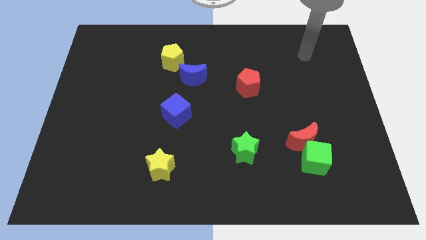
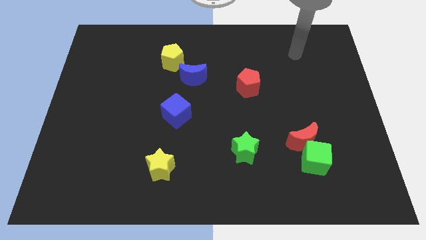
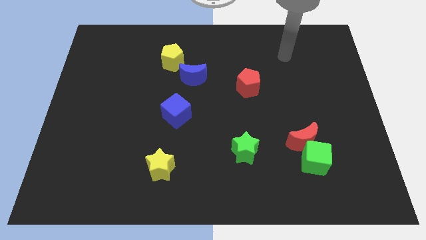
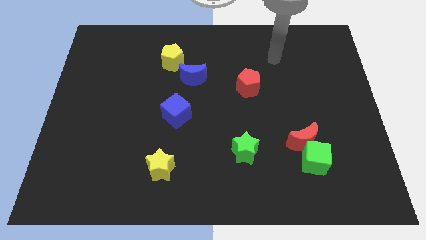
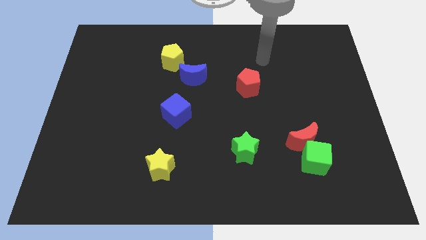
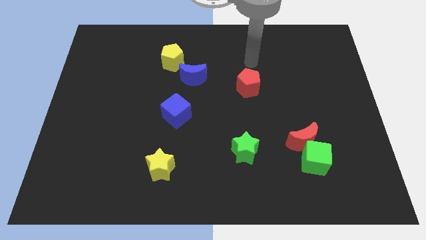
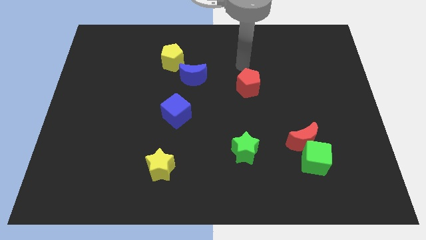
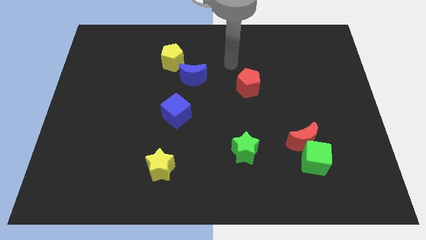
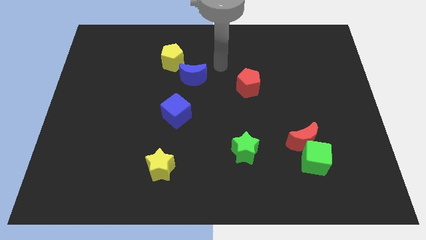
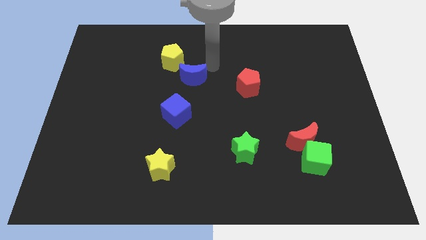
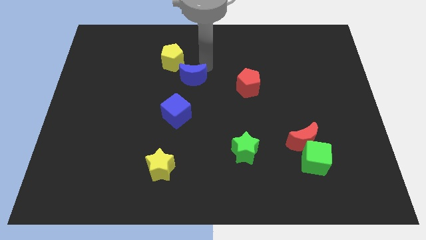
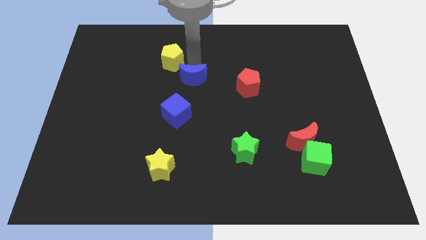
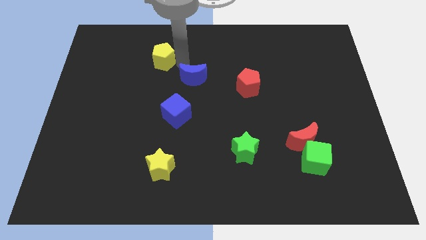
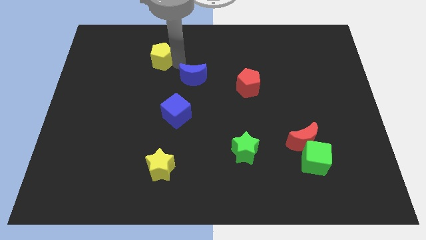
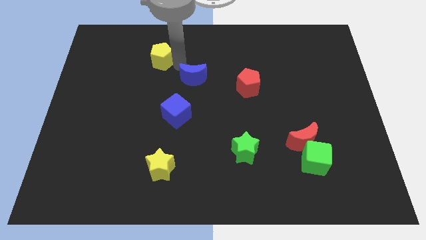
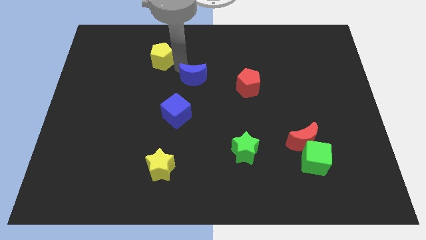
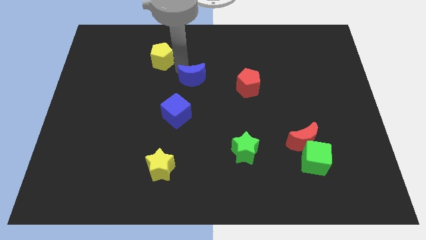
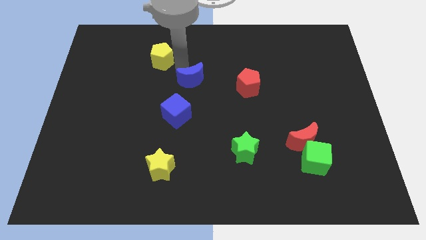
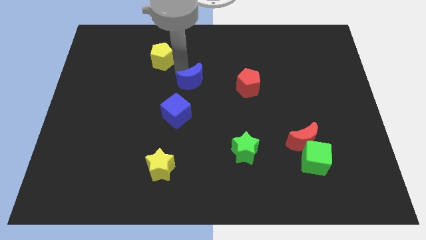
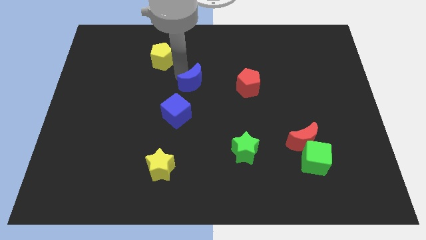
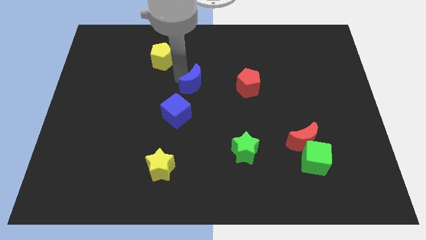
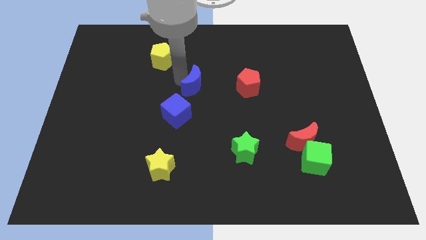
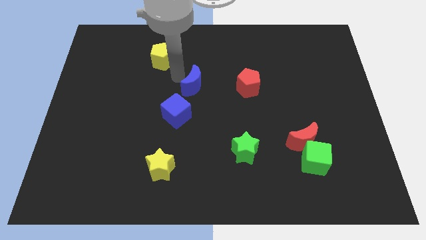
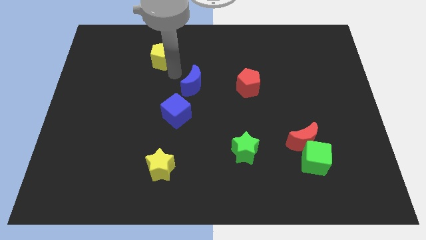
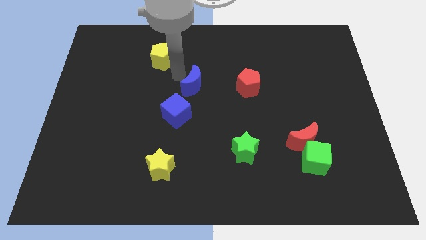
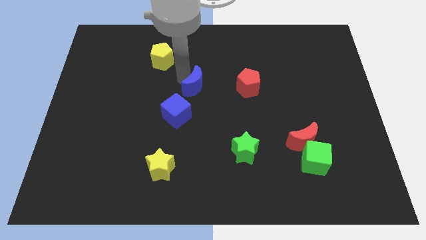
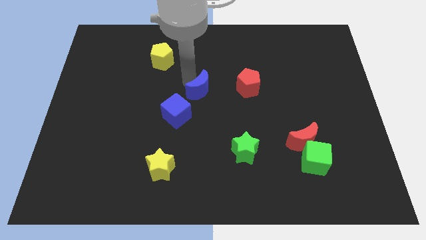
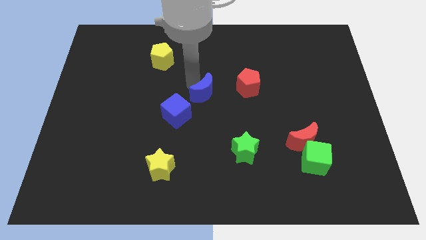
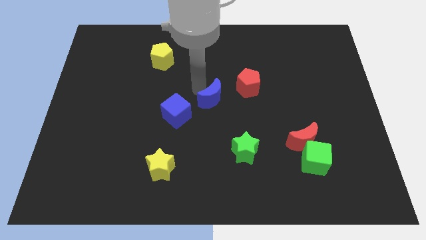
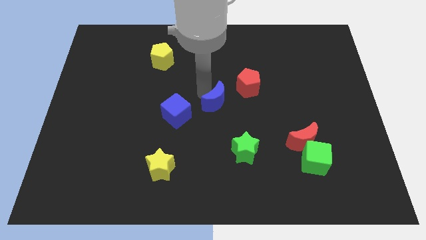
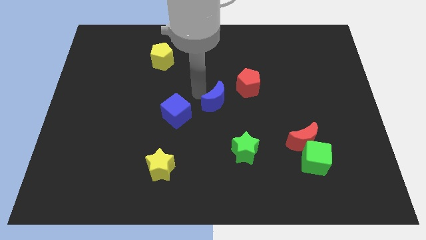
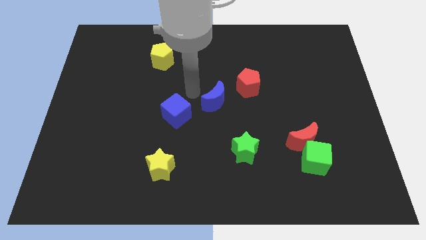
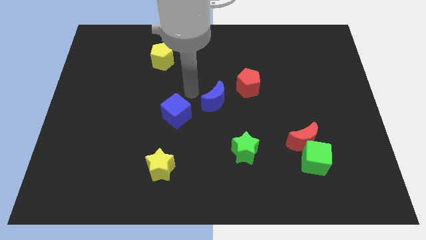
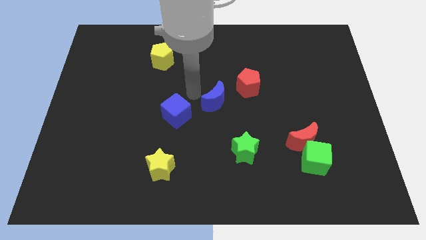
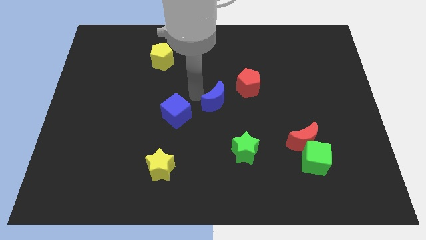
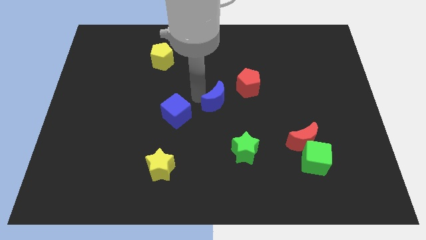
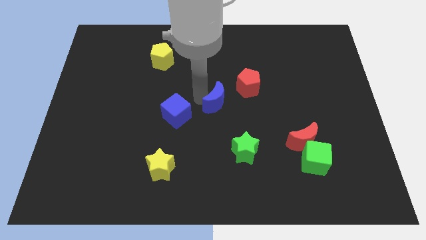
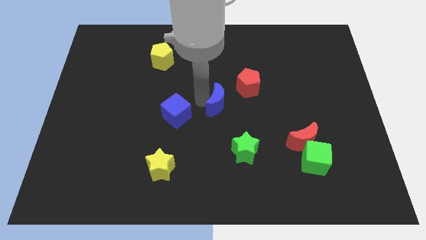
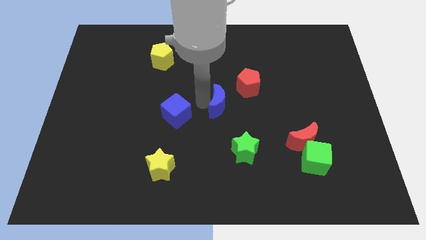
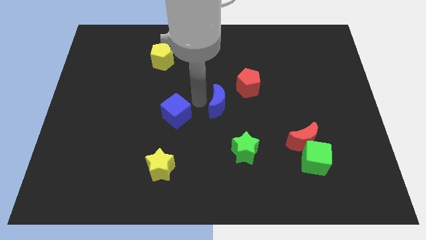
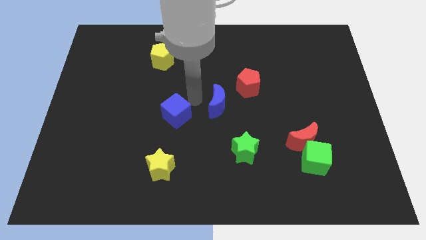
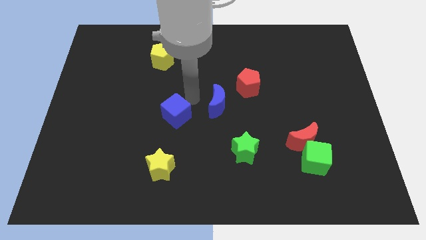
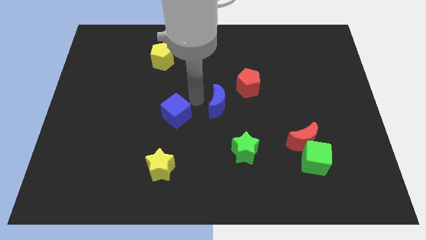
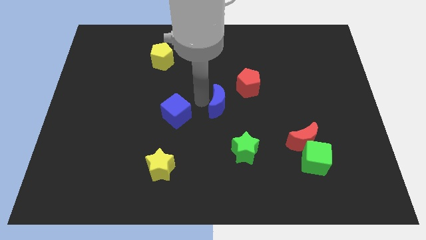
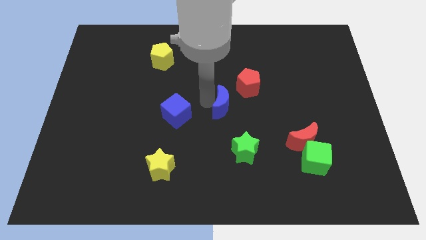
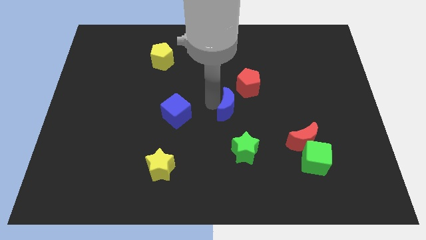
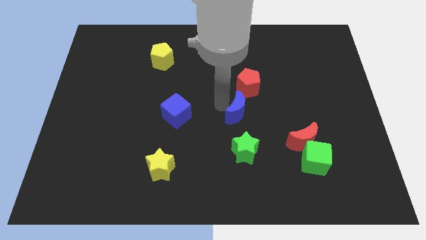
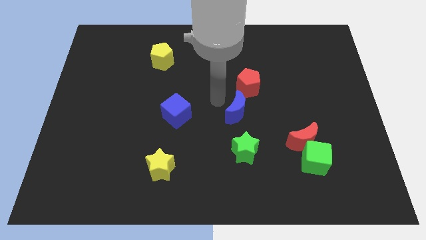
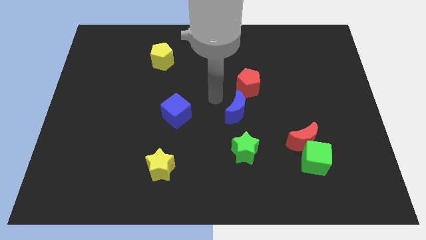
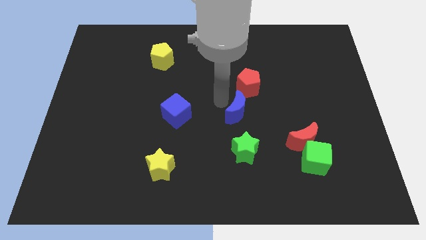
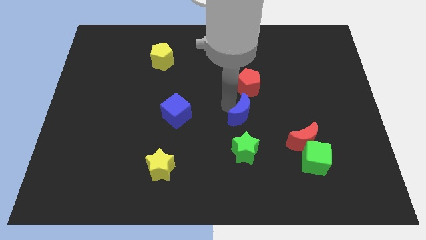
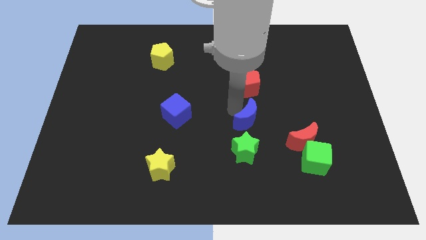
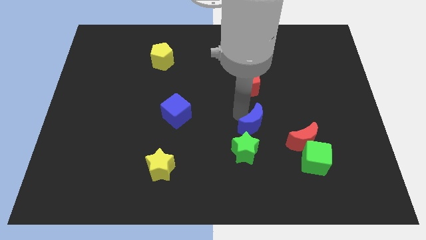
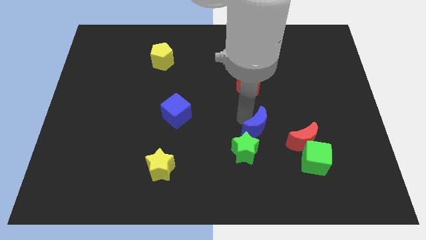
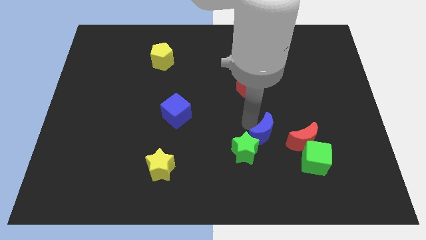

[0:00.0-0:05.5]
move the blue moon to the top left side of the green cube

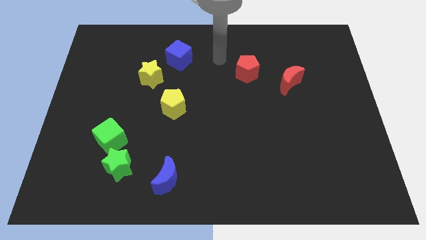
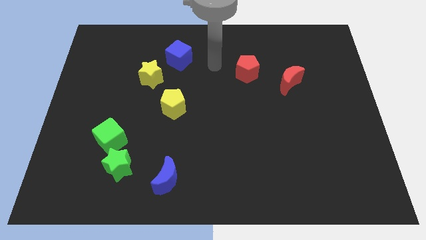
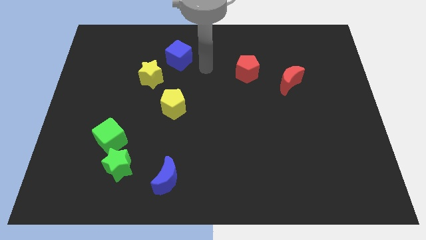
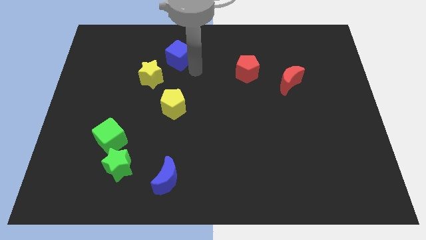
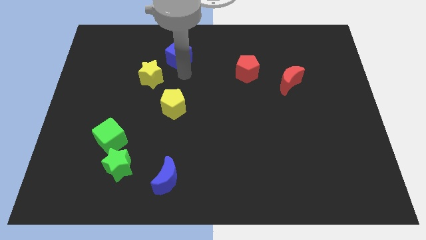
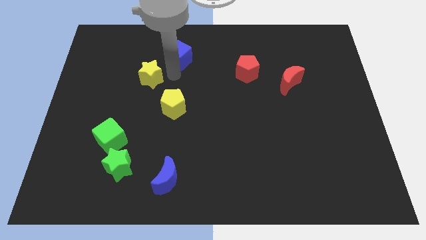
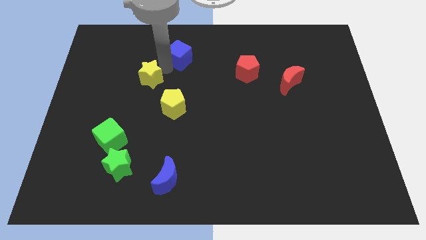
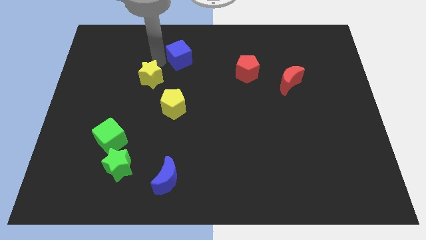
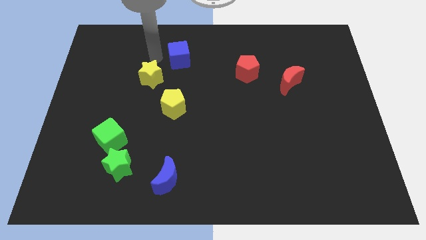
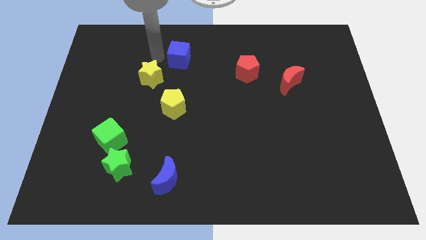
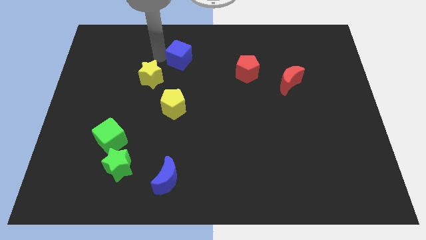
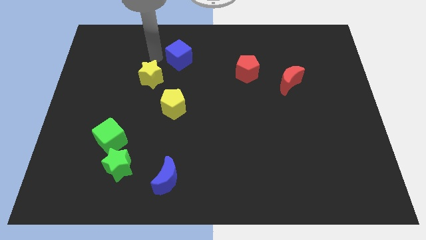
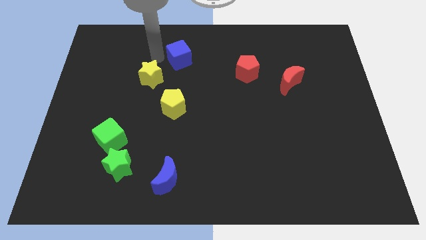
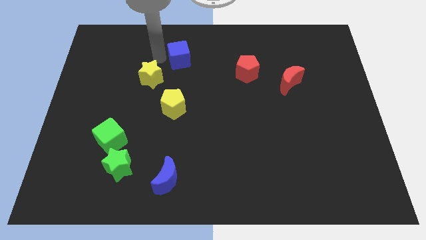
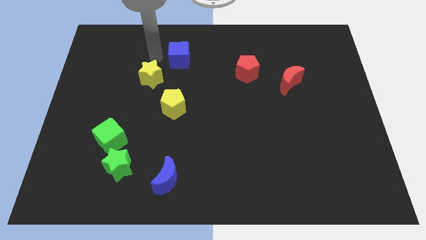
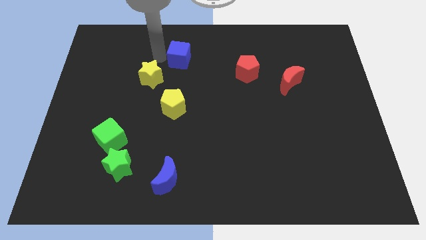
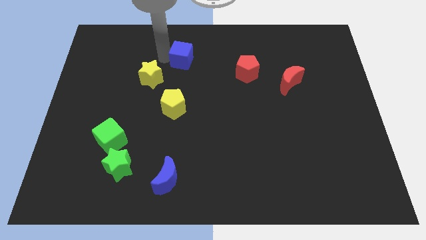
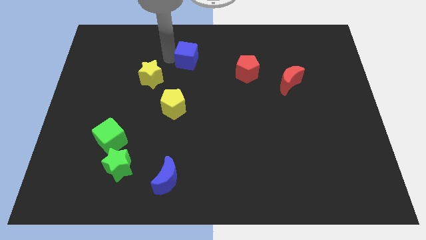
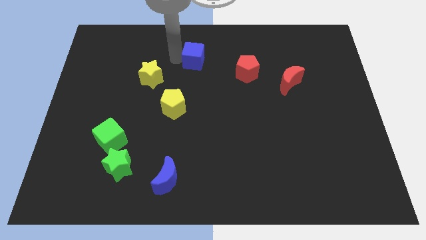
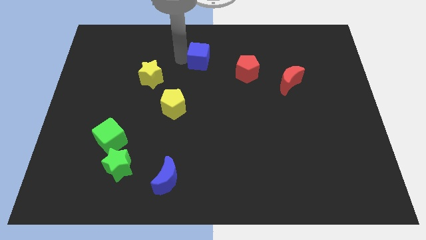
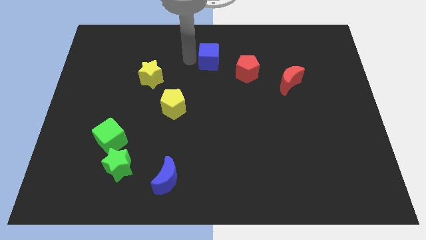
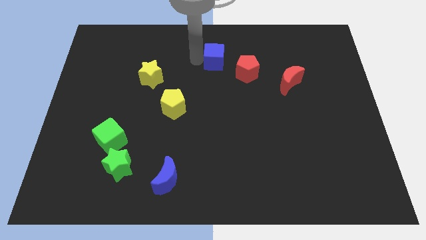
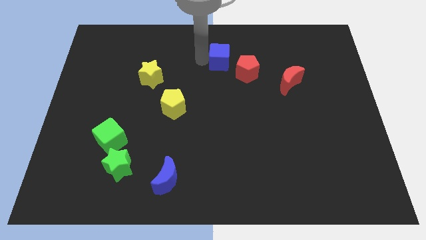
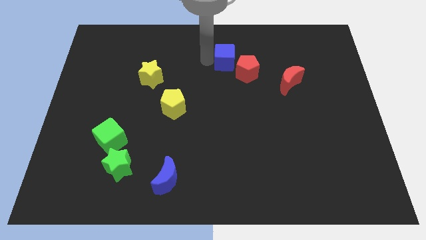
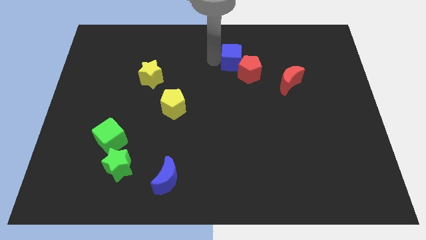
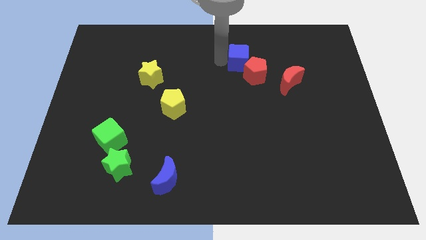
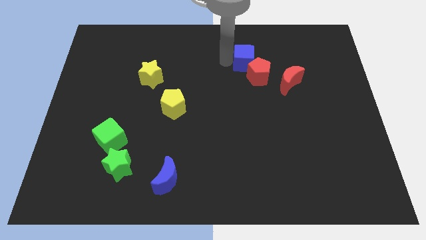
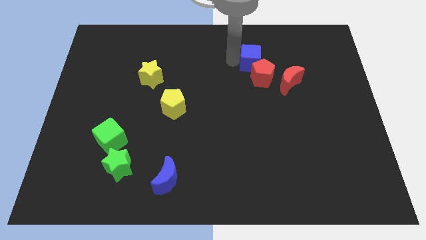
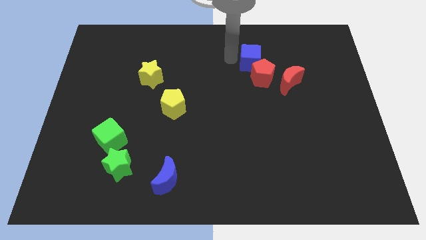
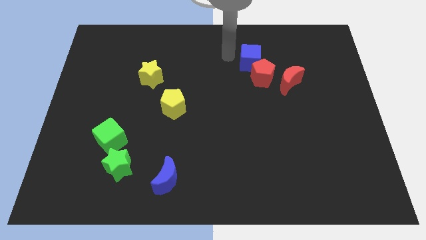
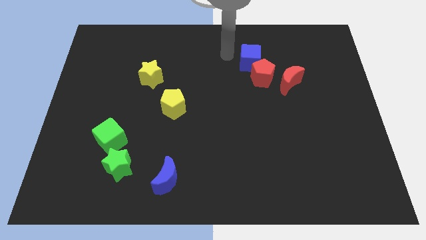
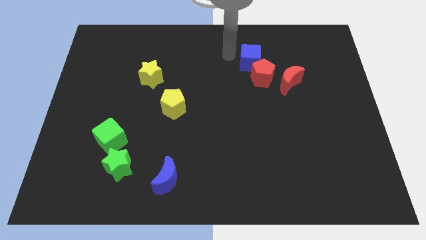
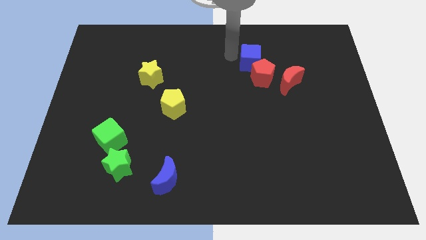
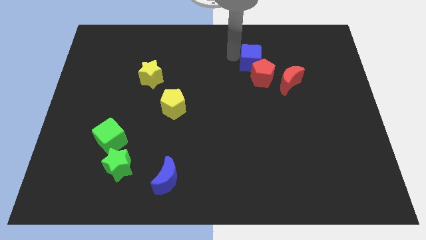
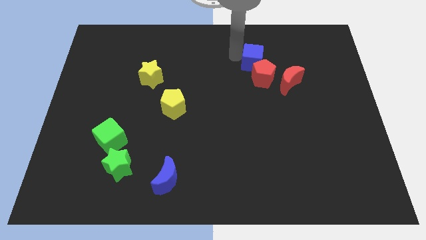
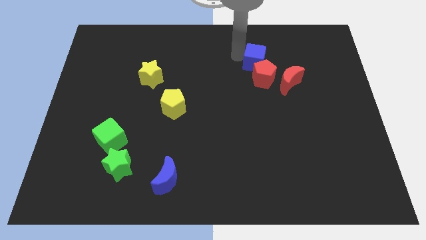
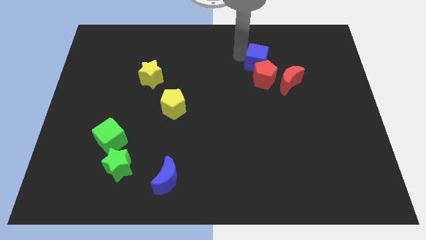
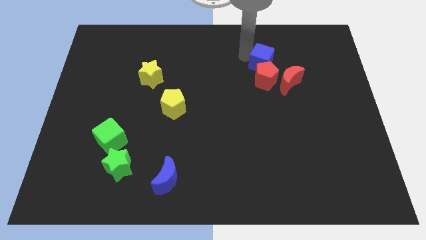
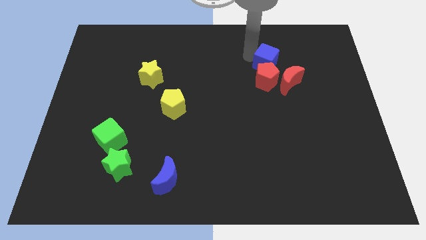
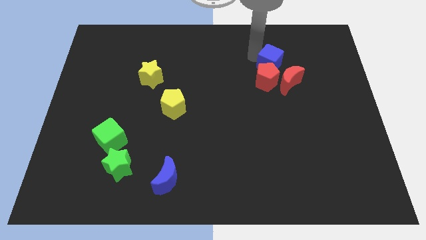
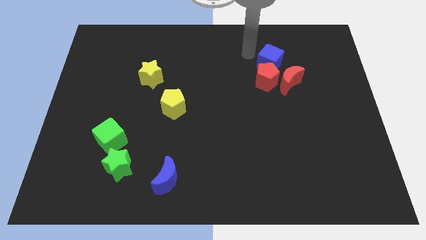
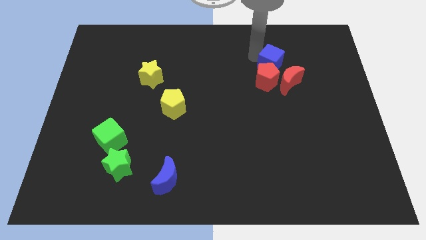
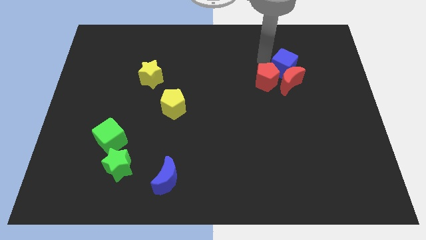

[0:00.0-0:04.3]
push the blue cube right of the red pentagon
